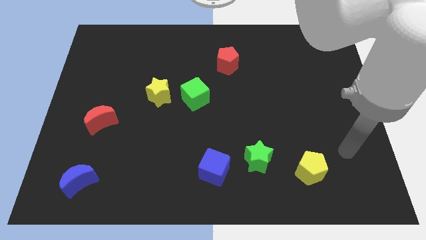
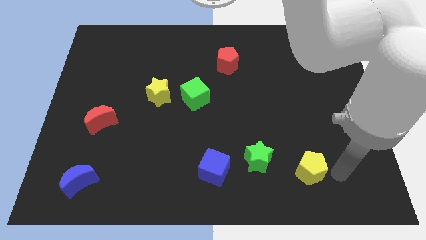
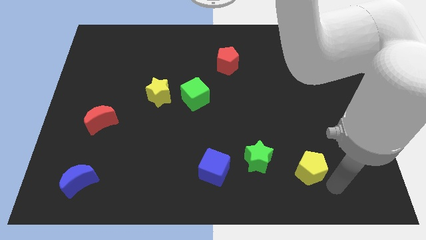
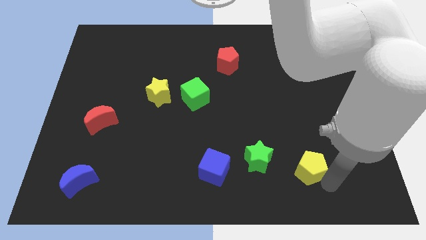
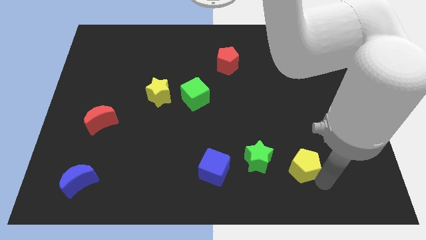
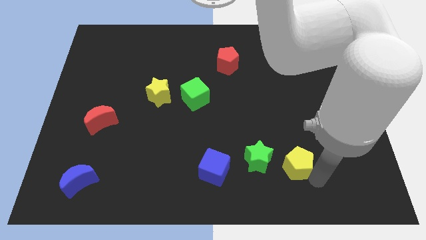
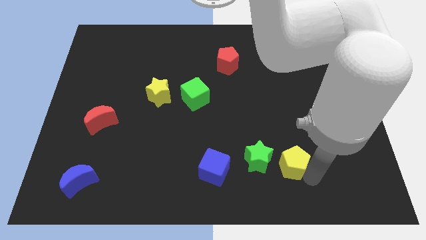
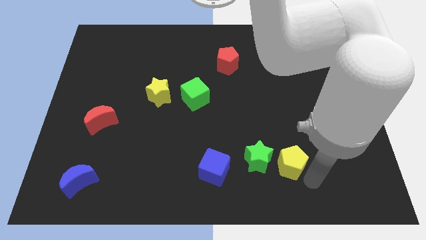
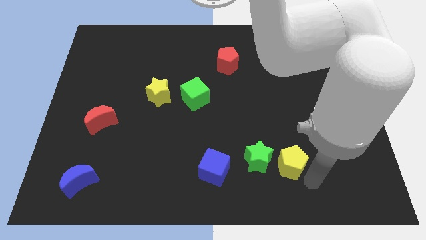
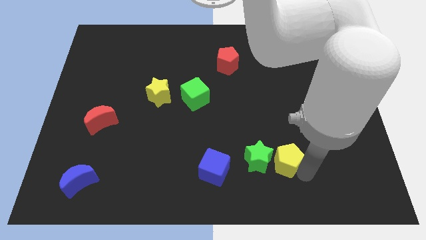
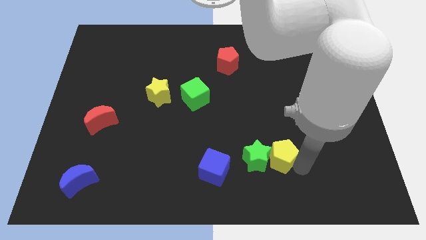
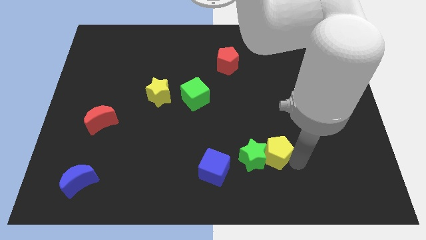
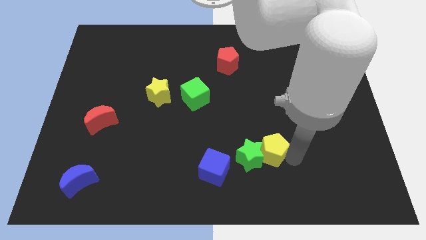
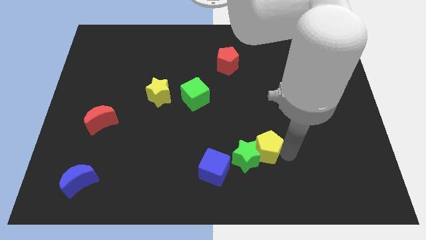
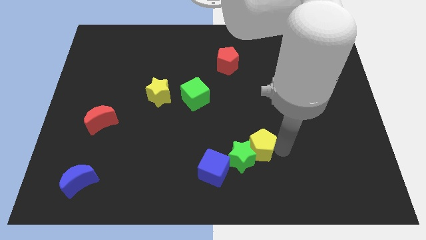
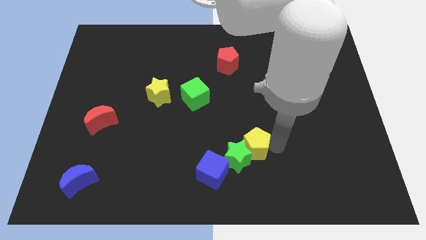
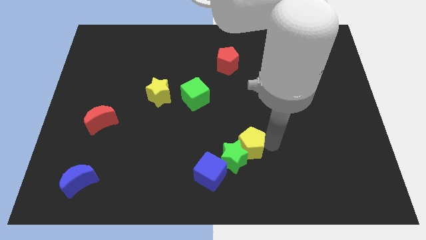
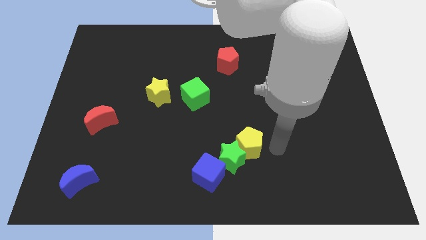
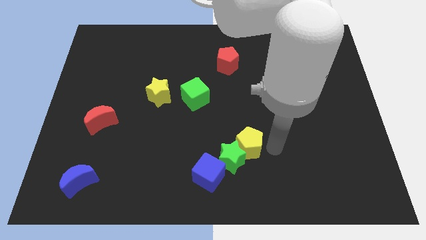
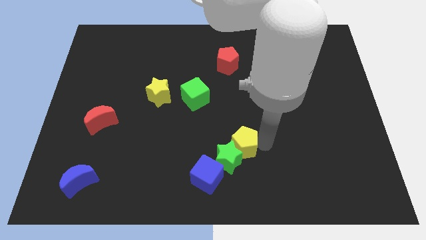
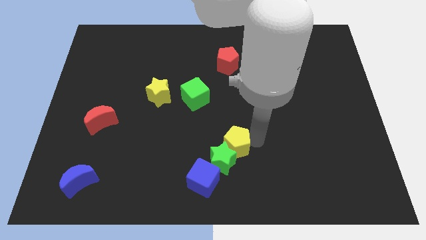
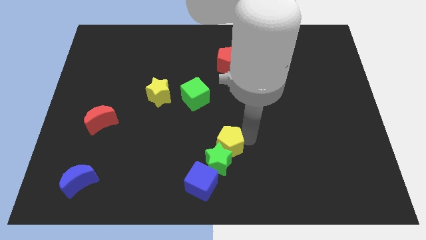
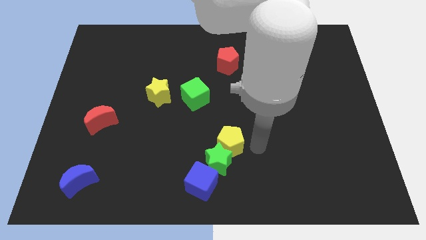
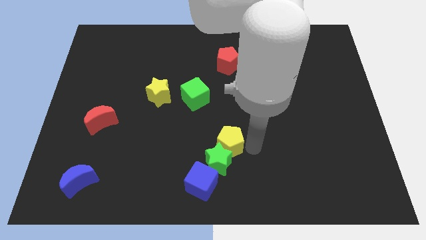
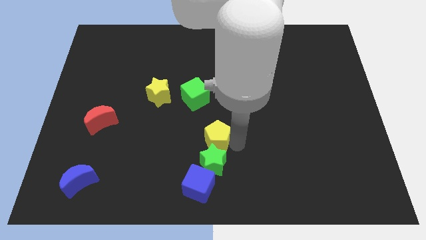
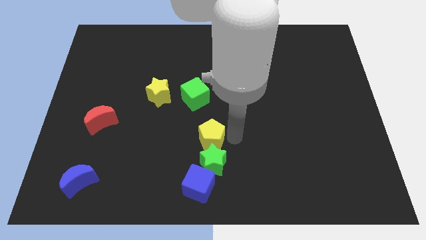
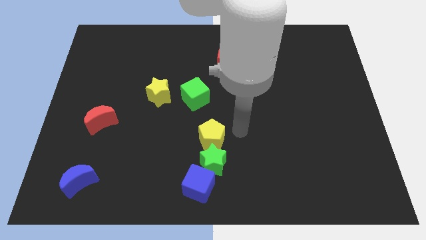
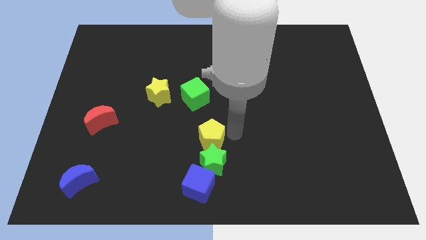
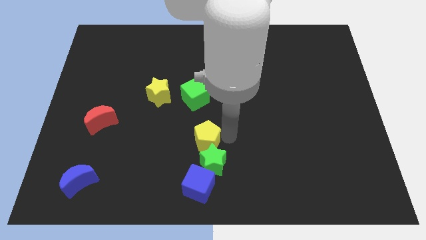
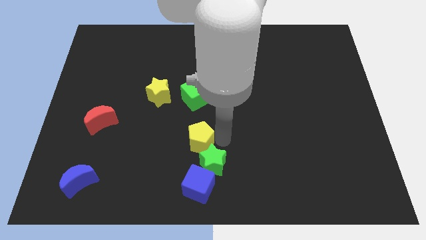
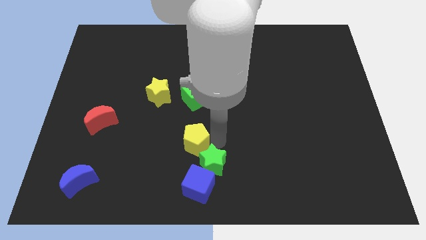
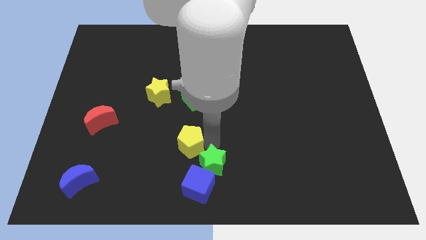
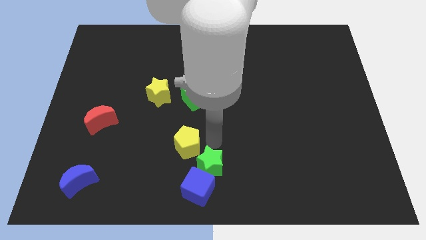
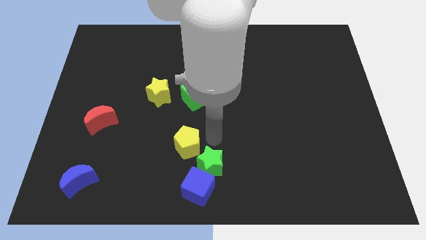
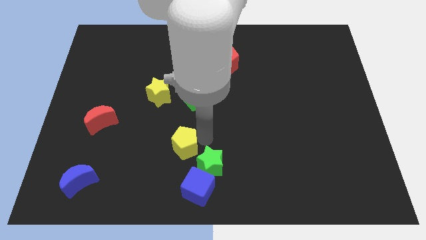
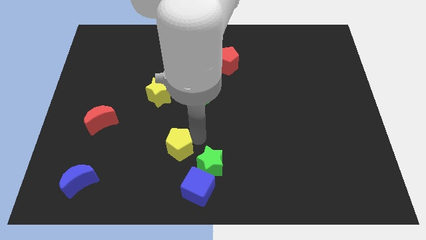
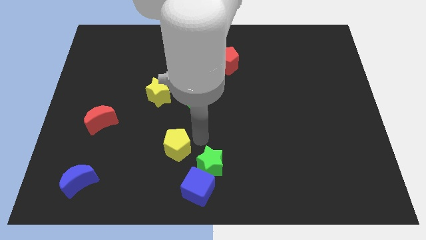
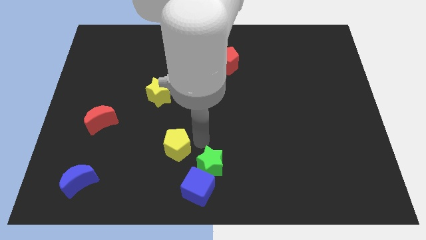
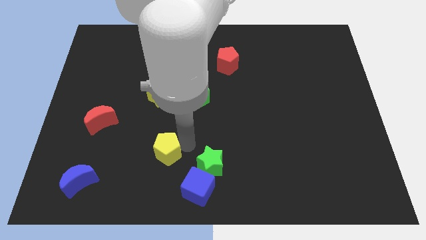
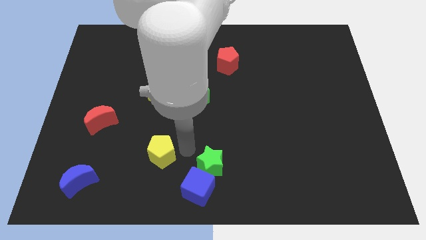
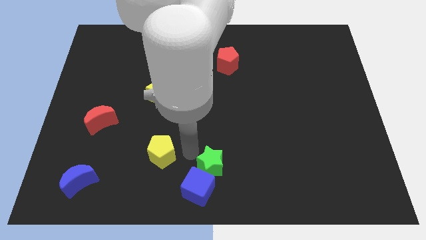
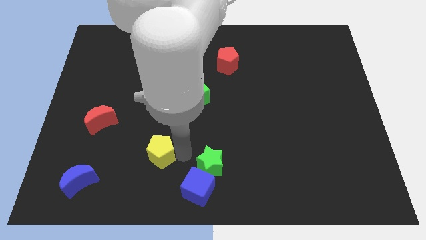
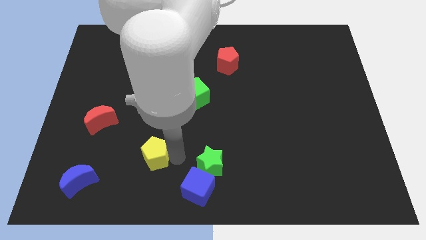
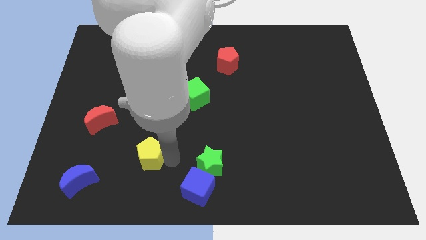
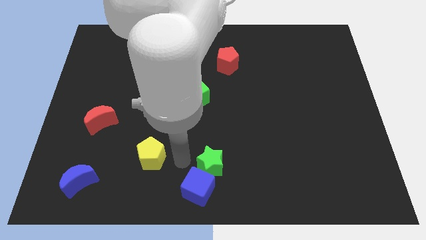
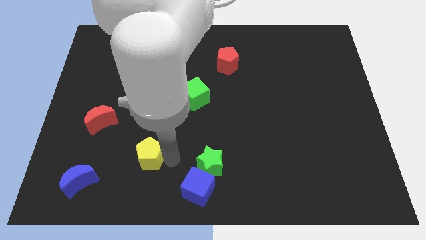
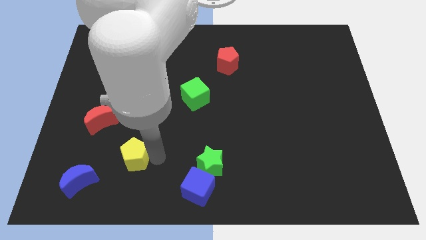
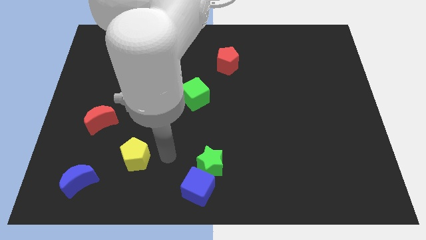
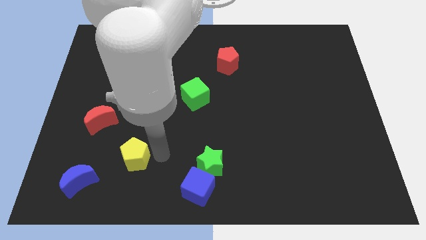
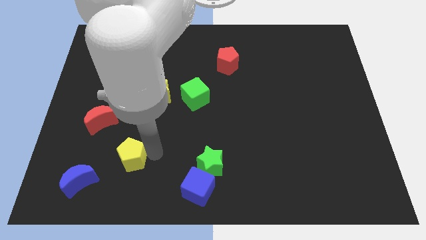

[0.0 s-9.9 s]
slide the yellow pentagon to the top right side of the blue moon

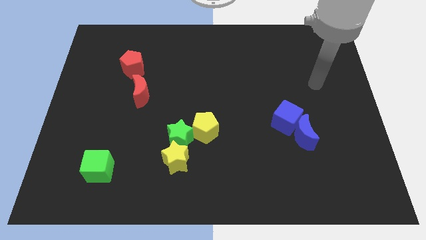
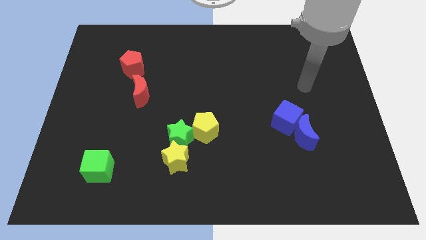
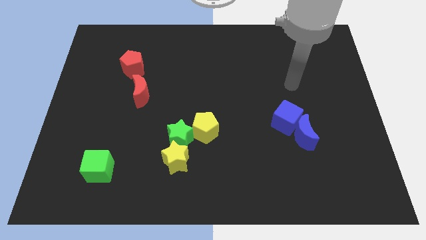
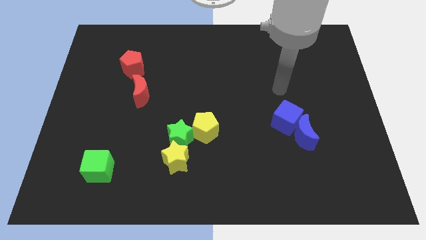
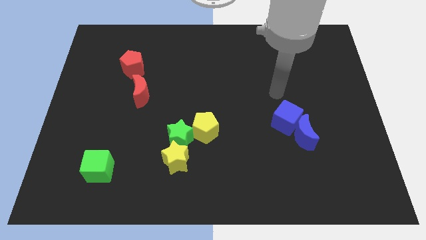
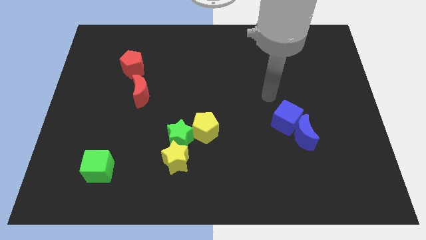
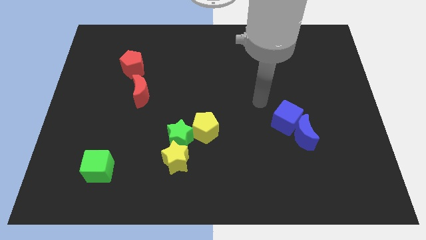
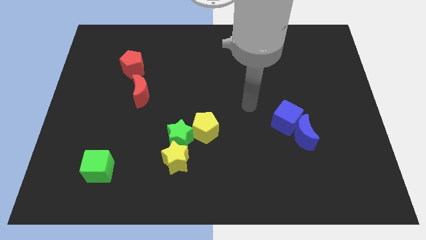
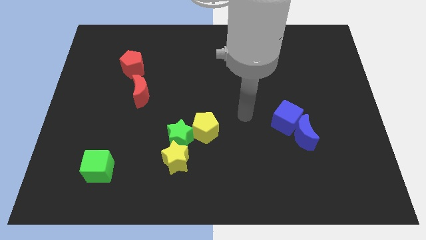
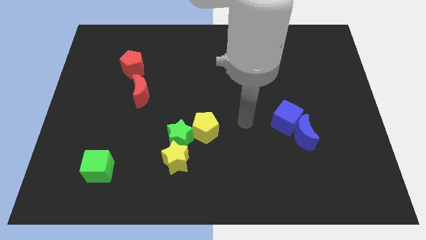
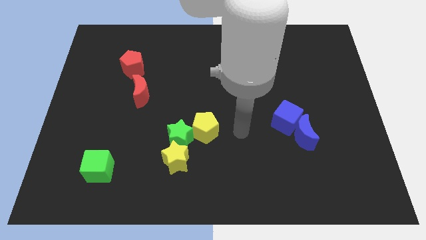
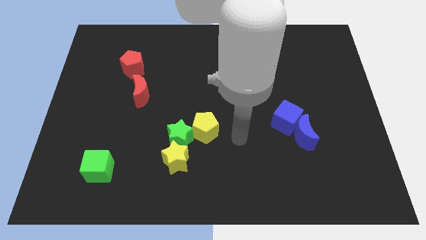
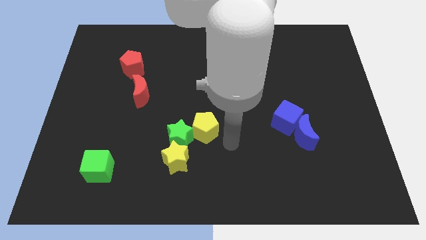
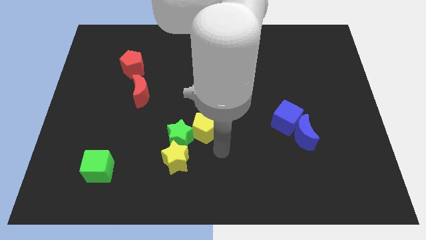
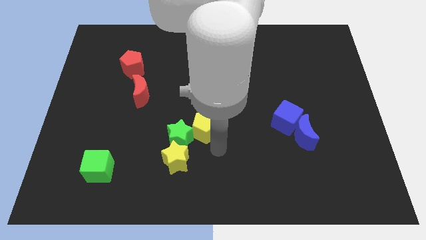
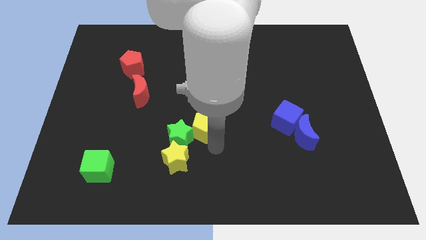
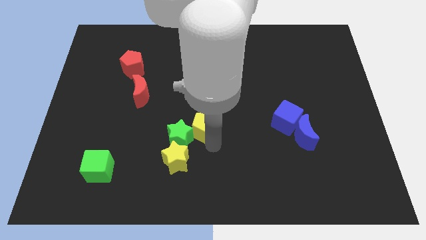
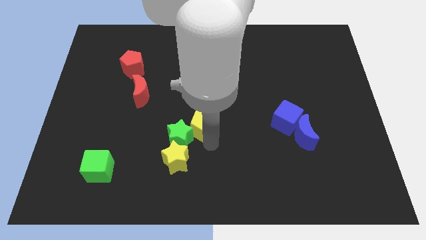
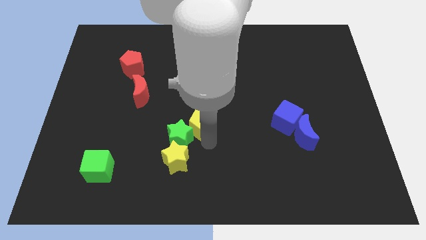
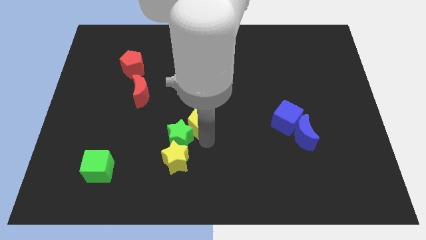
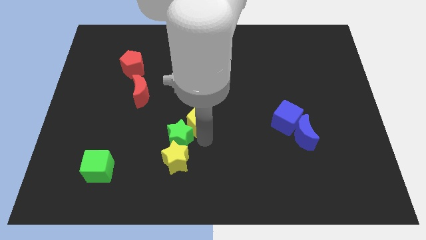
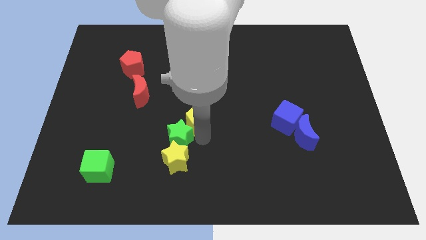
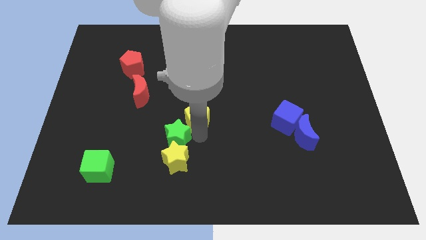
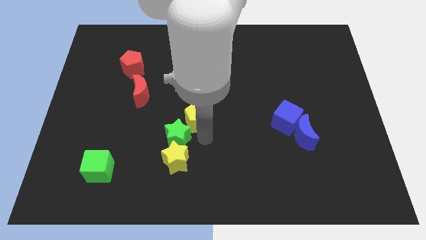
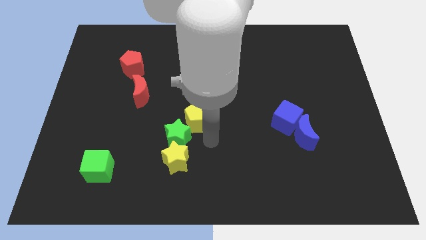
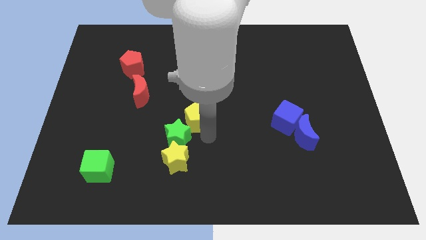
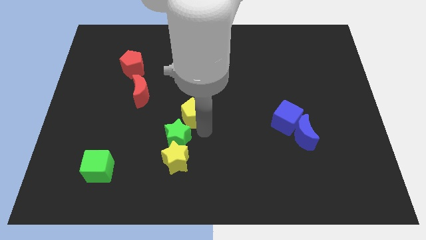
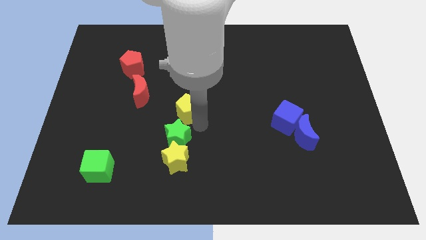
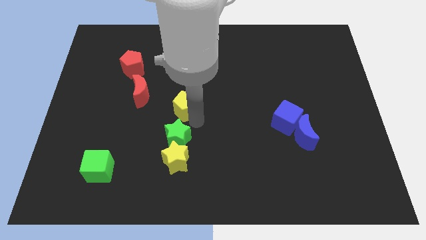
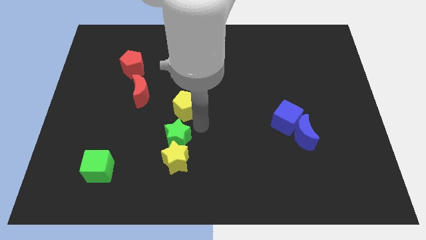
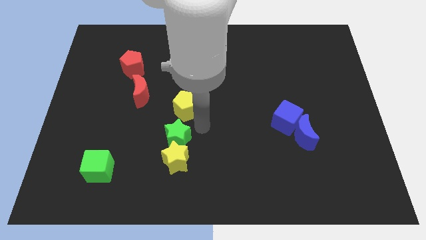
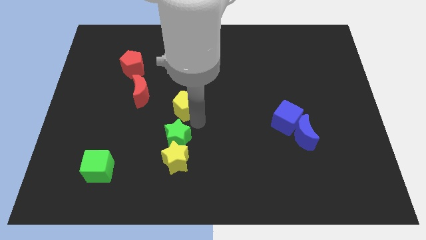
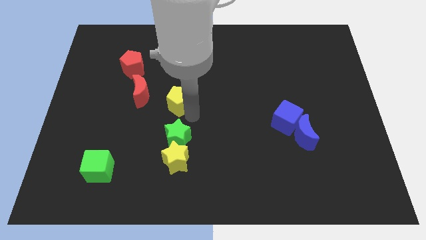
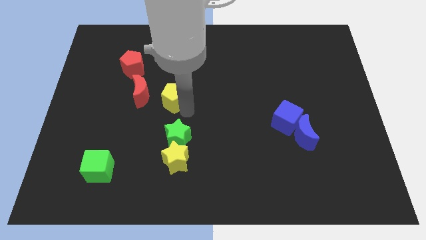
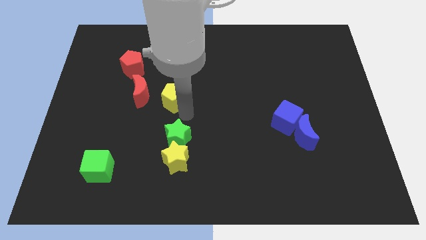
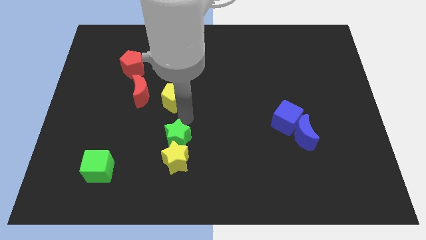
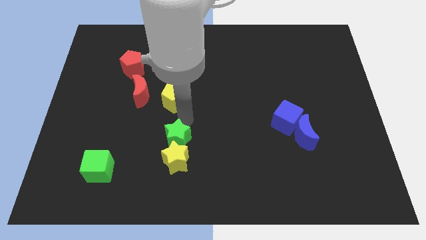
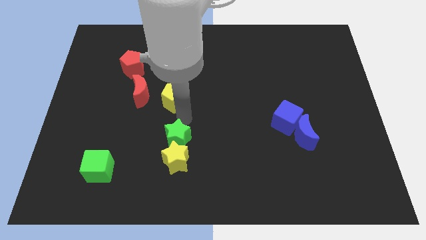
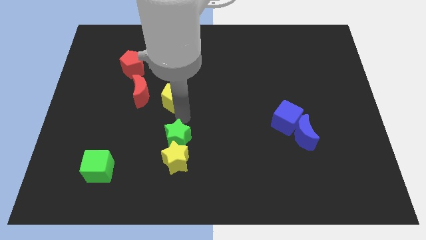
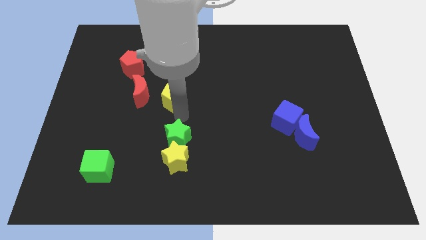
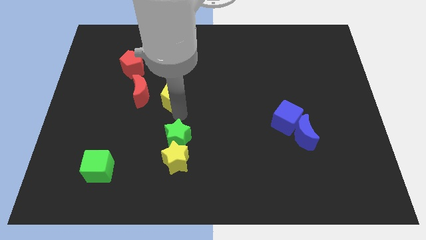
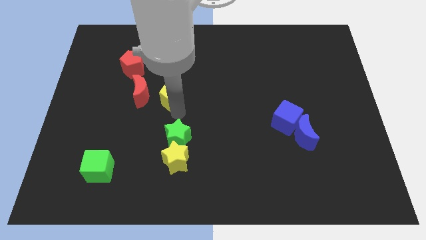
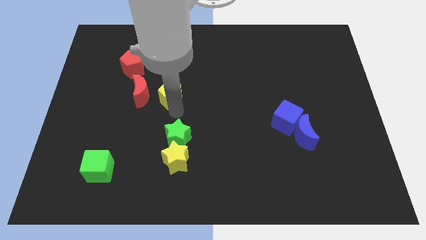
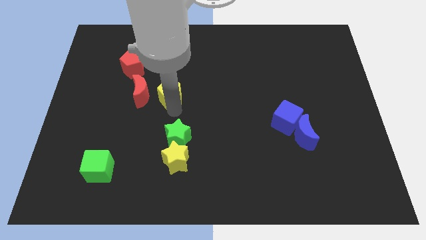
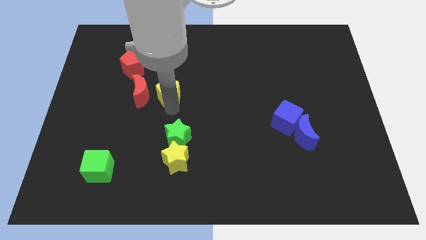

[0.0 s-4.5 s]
push the yellow pentagon to the top right of the red moon
